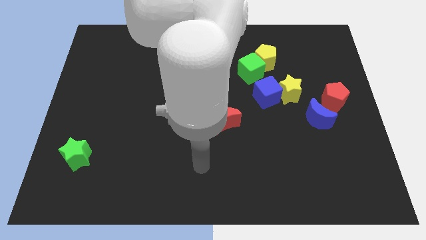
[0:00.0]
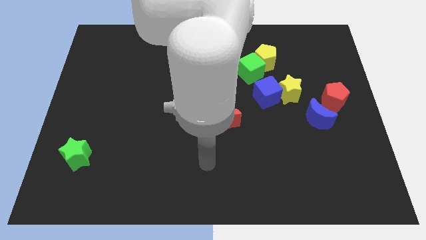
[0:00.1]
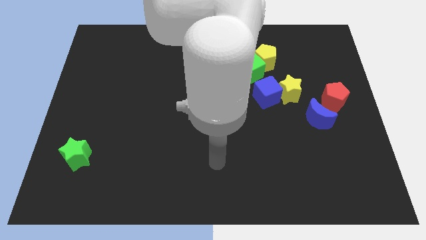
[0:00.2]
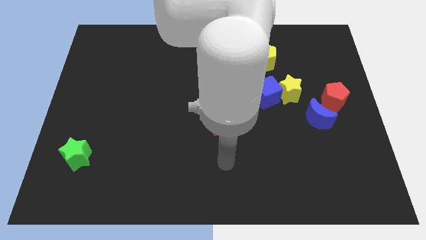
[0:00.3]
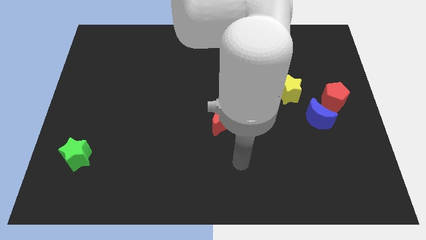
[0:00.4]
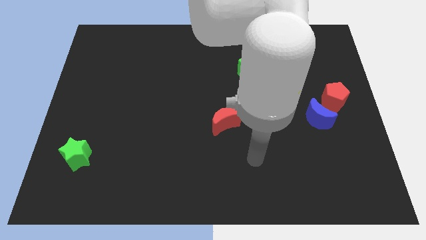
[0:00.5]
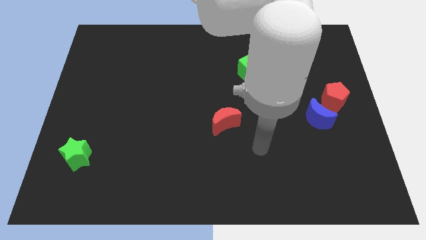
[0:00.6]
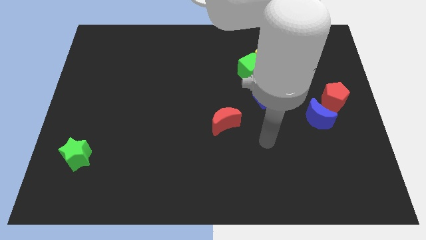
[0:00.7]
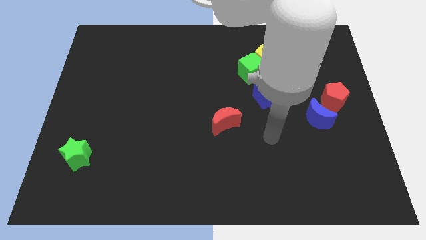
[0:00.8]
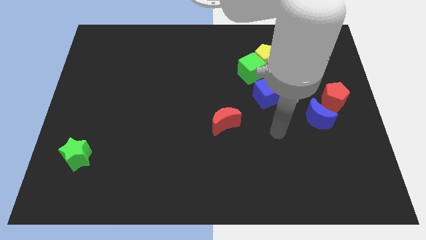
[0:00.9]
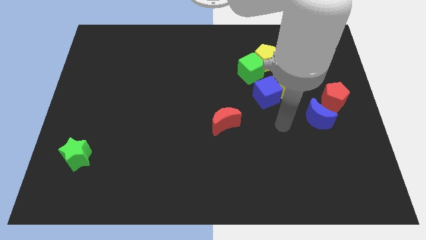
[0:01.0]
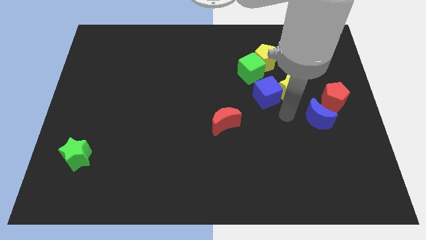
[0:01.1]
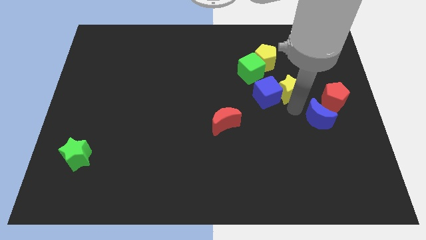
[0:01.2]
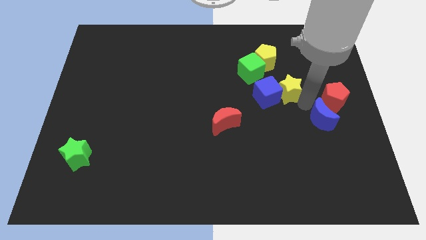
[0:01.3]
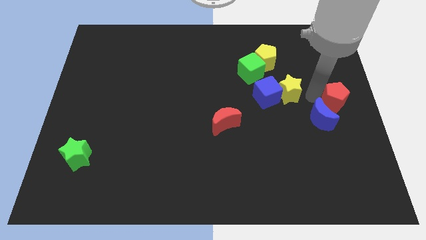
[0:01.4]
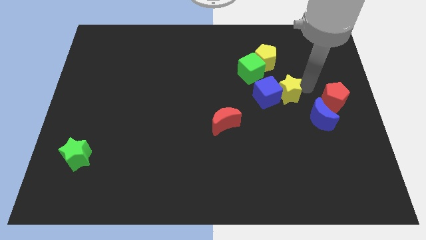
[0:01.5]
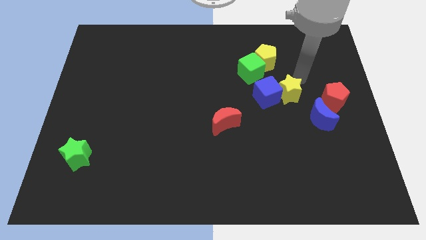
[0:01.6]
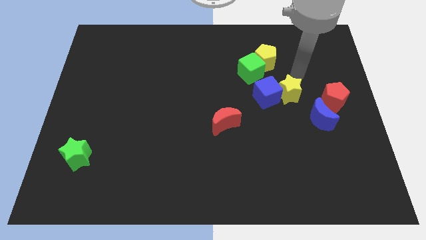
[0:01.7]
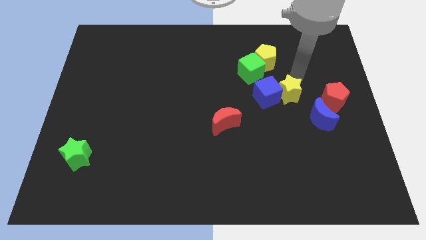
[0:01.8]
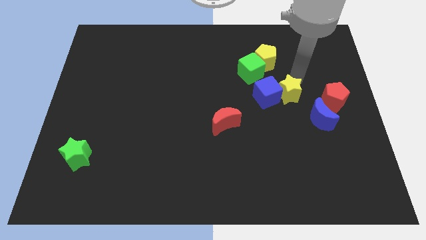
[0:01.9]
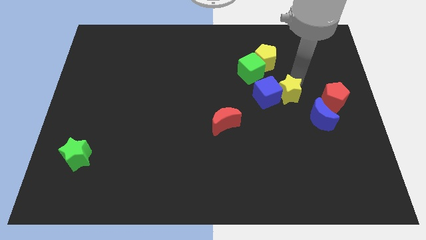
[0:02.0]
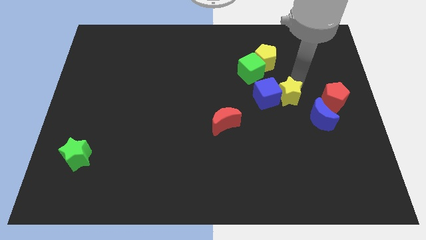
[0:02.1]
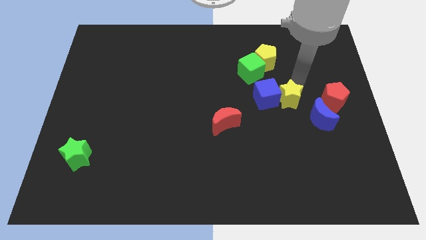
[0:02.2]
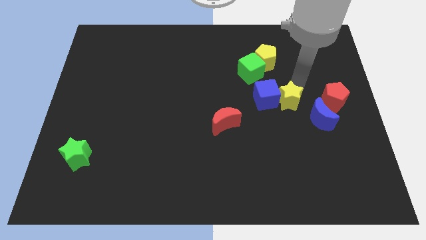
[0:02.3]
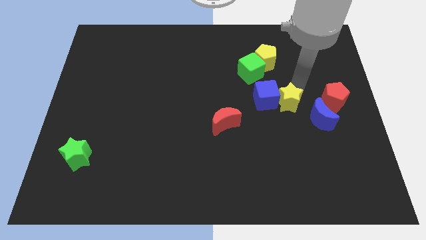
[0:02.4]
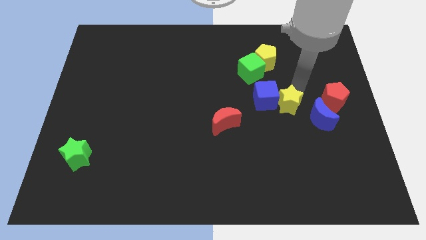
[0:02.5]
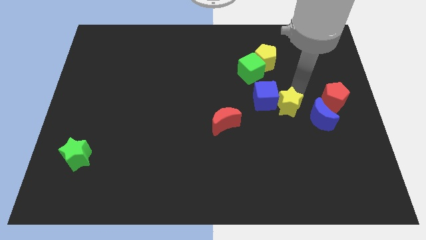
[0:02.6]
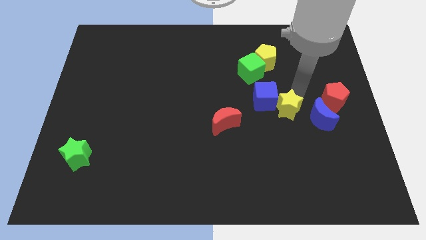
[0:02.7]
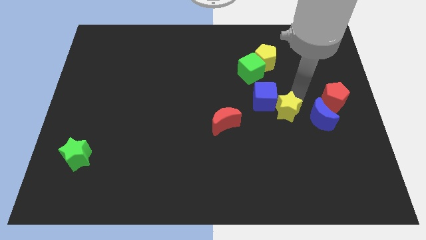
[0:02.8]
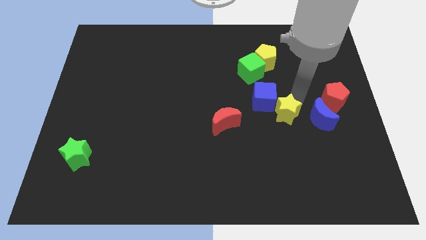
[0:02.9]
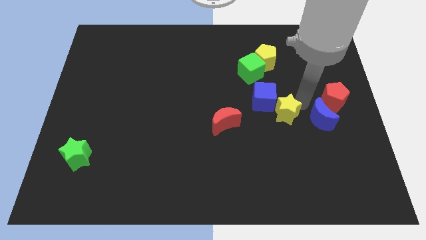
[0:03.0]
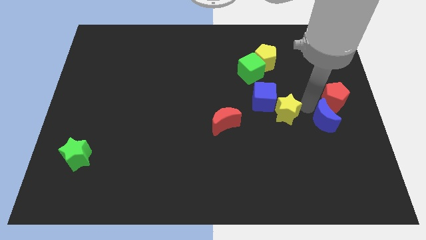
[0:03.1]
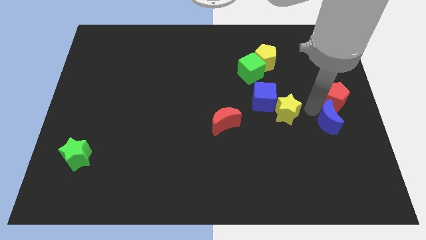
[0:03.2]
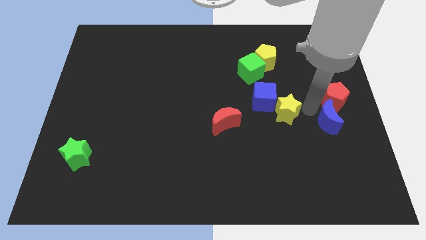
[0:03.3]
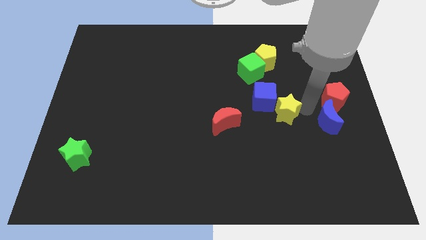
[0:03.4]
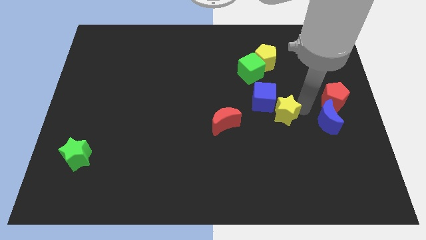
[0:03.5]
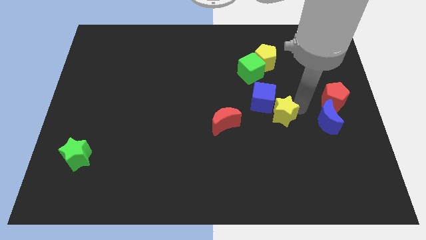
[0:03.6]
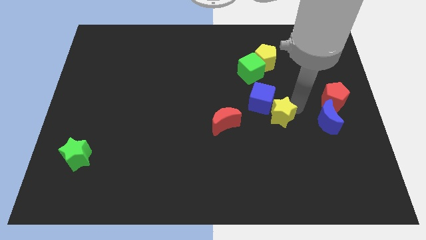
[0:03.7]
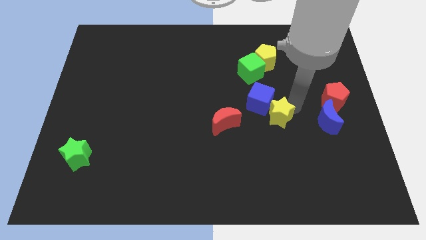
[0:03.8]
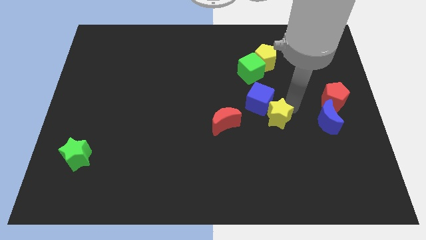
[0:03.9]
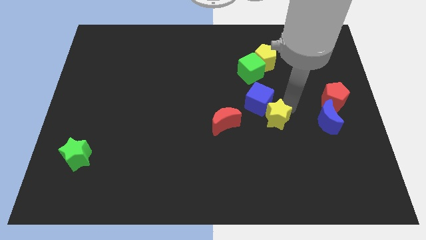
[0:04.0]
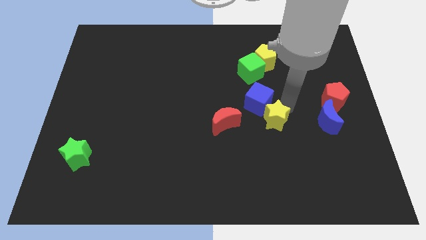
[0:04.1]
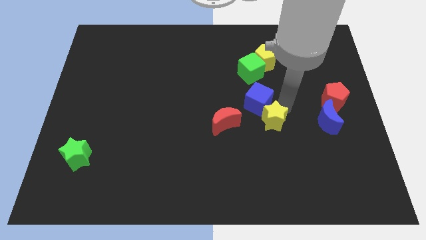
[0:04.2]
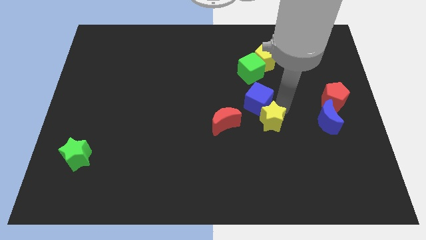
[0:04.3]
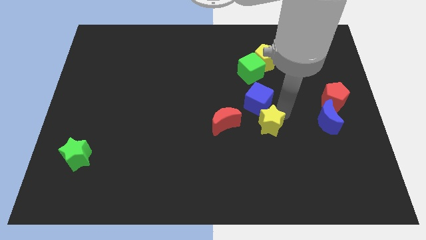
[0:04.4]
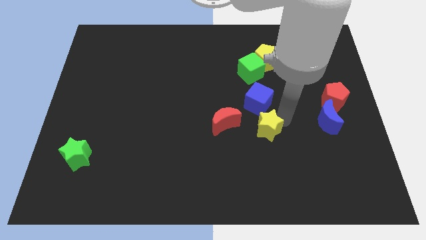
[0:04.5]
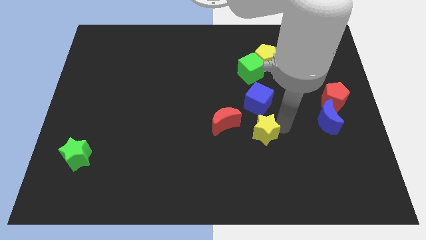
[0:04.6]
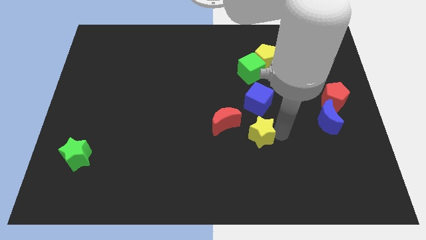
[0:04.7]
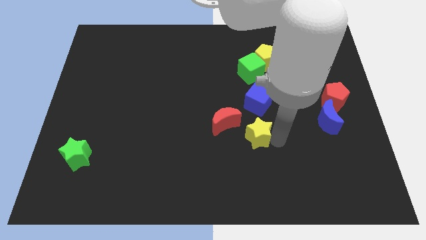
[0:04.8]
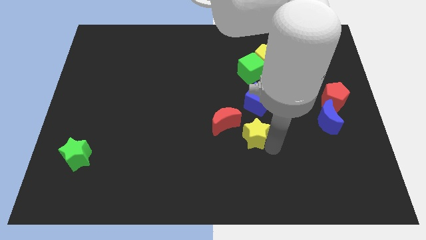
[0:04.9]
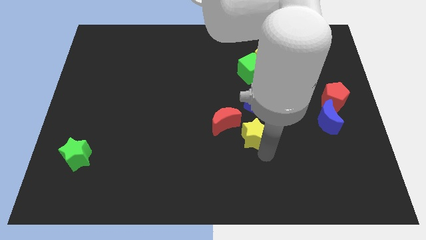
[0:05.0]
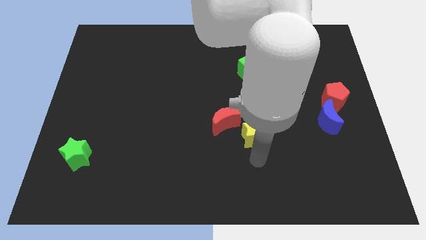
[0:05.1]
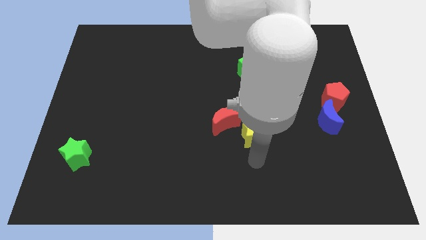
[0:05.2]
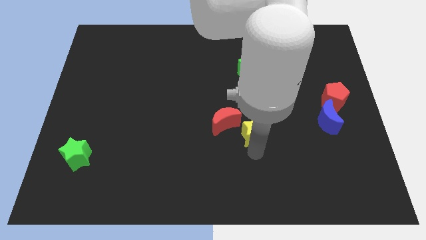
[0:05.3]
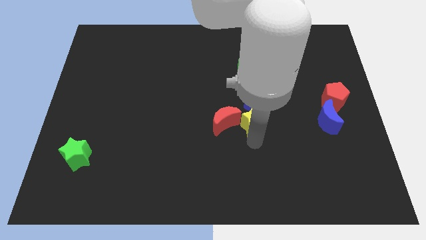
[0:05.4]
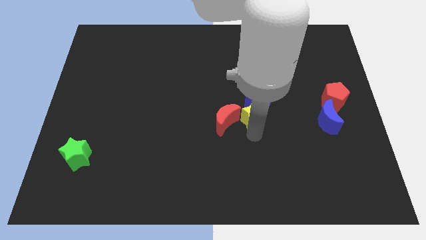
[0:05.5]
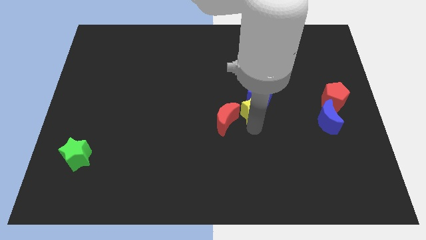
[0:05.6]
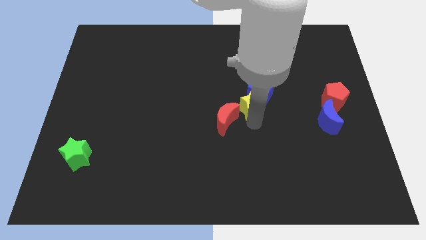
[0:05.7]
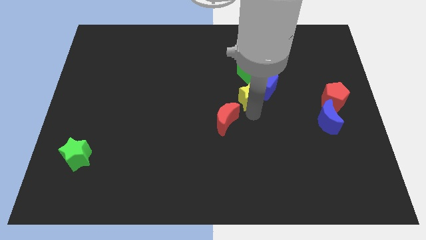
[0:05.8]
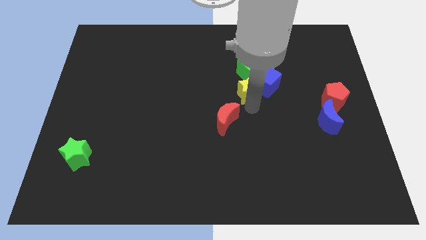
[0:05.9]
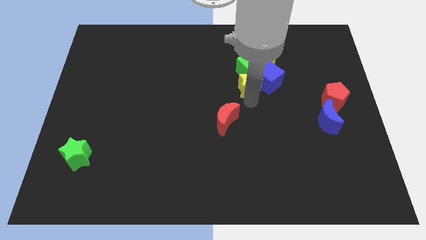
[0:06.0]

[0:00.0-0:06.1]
push the yellow star to the bottom left of the yellow pentagon

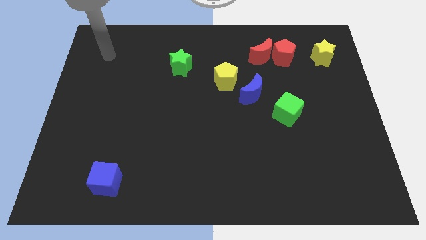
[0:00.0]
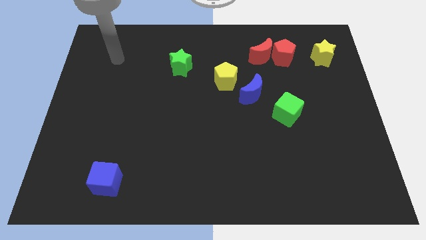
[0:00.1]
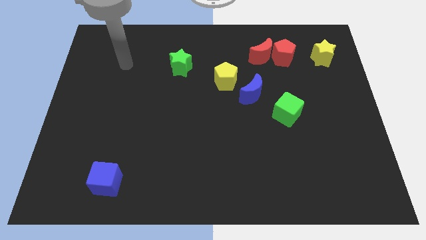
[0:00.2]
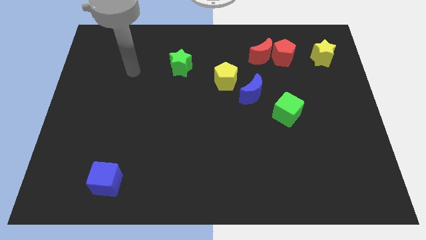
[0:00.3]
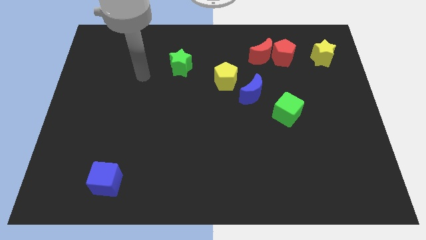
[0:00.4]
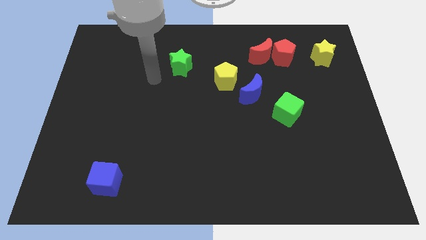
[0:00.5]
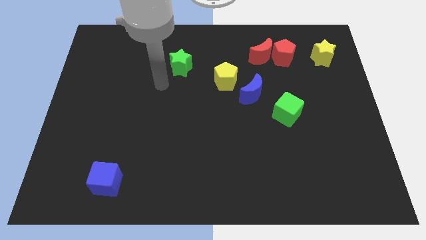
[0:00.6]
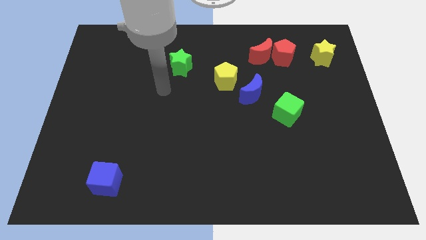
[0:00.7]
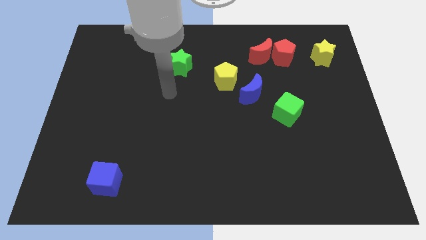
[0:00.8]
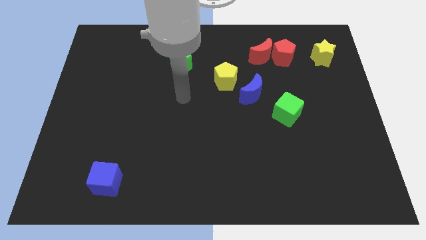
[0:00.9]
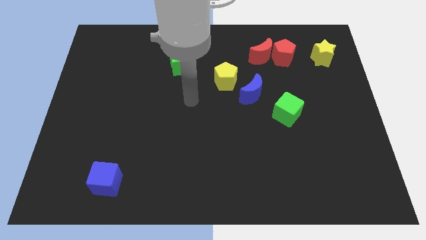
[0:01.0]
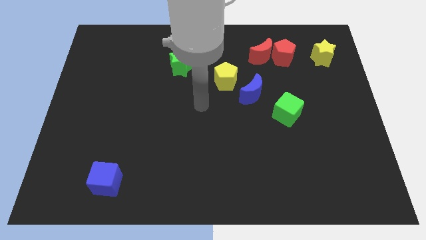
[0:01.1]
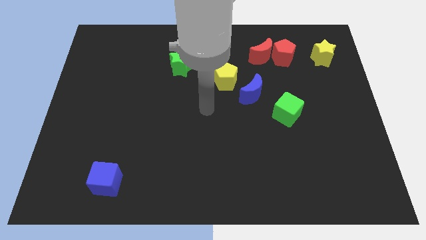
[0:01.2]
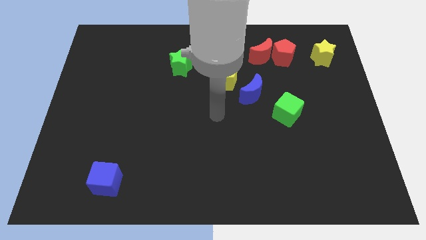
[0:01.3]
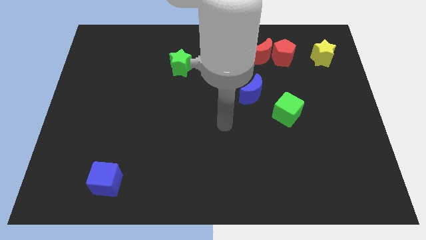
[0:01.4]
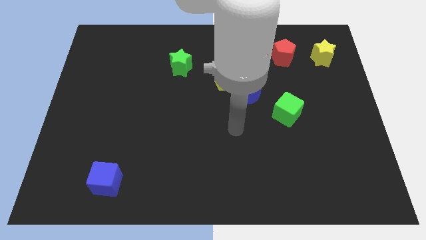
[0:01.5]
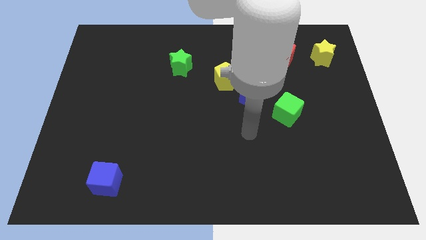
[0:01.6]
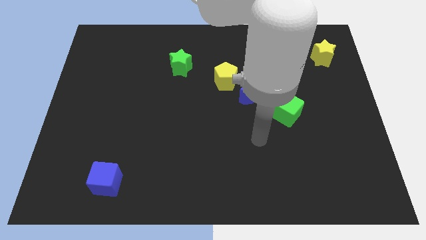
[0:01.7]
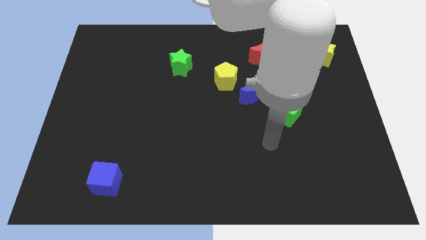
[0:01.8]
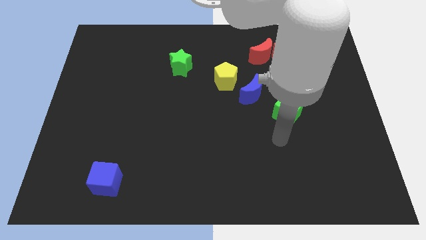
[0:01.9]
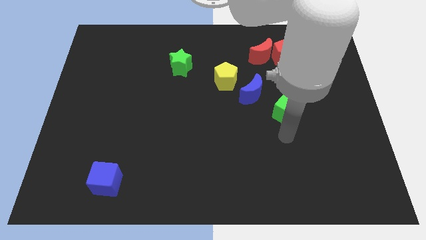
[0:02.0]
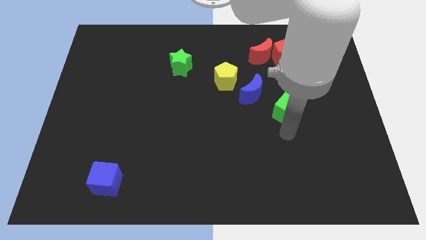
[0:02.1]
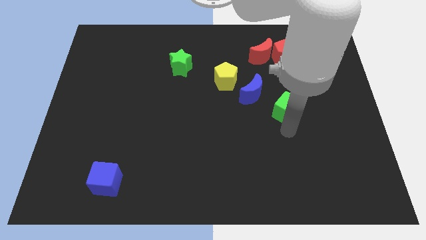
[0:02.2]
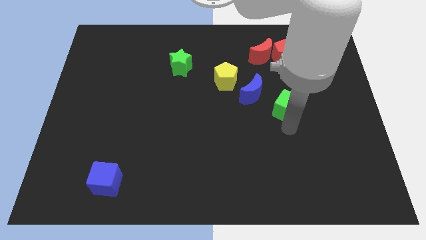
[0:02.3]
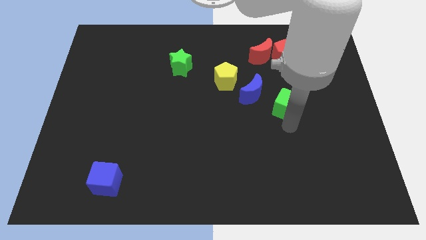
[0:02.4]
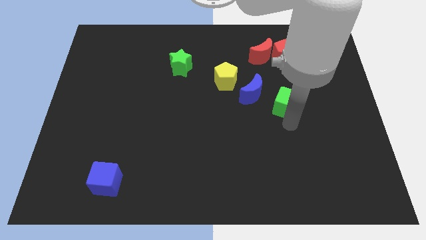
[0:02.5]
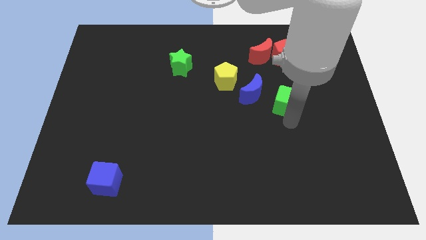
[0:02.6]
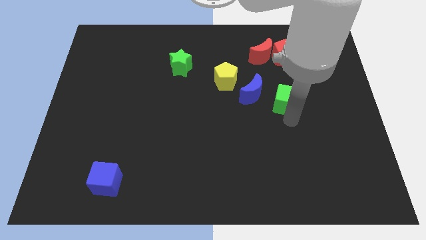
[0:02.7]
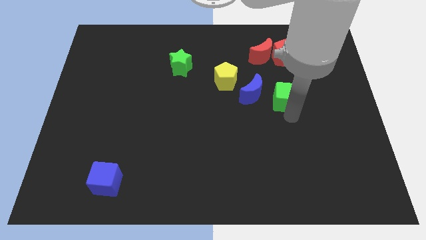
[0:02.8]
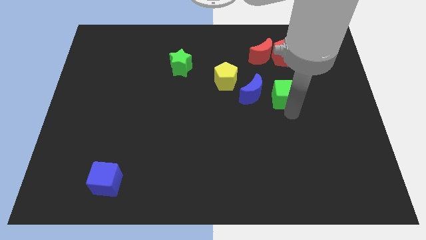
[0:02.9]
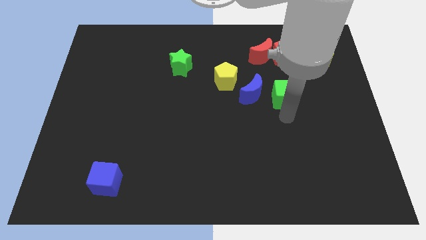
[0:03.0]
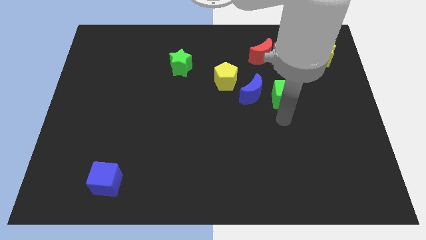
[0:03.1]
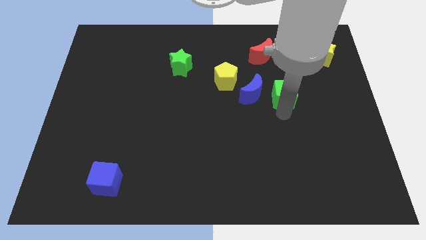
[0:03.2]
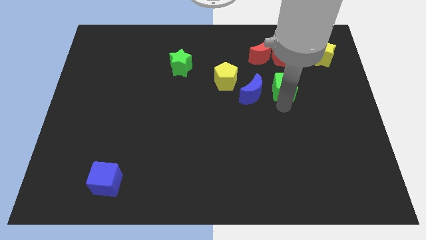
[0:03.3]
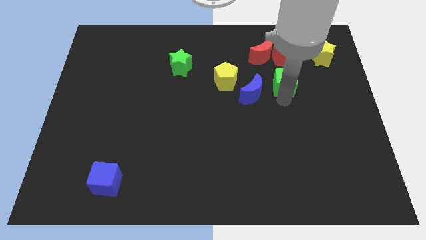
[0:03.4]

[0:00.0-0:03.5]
push the green cube diagonally down and to the right of the red moon
